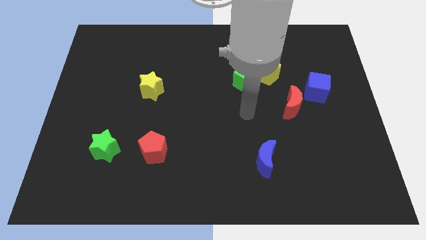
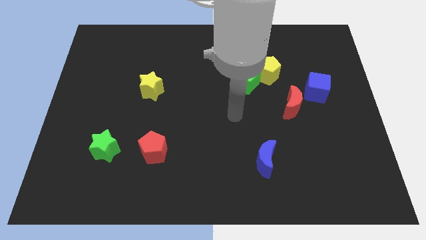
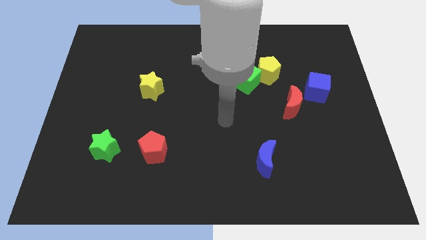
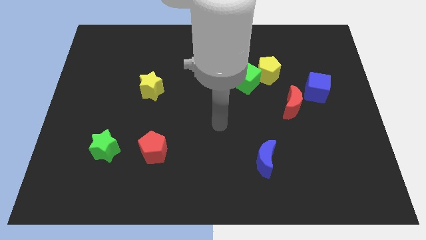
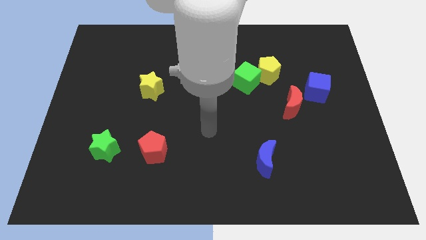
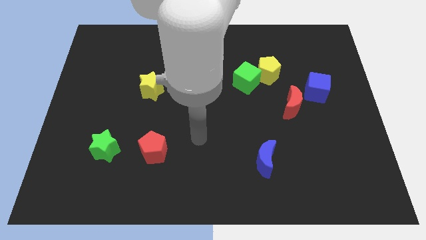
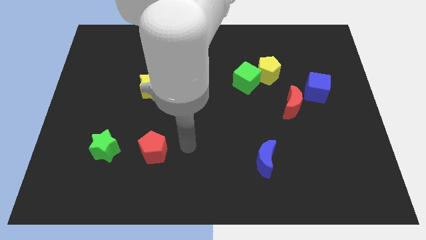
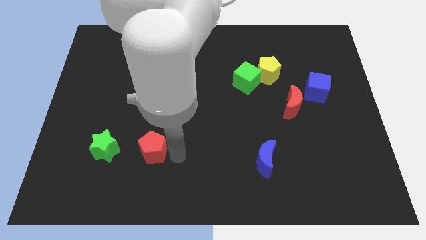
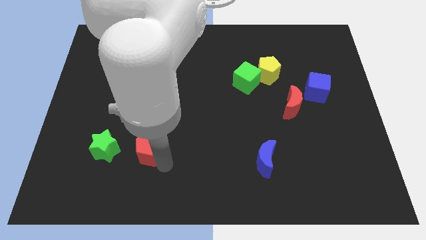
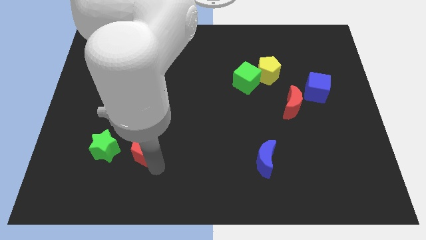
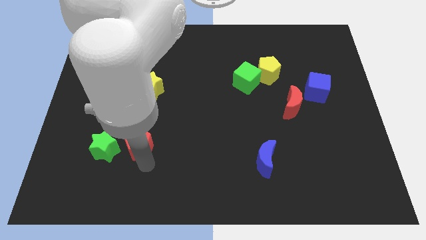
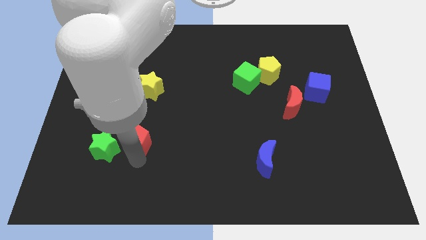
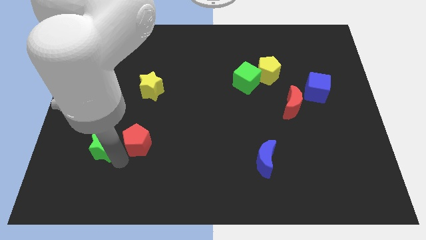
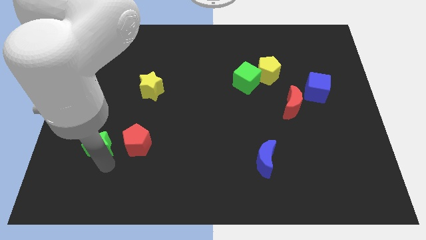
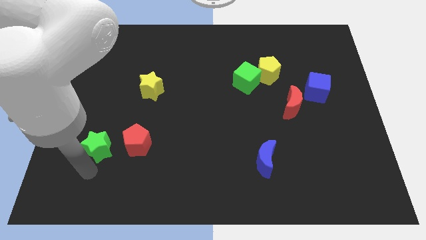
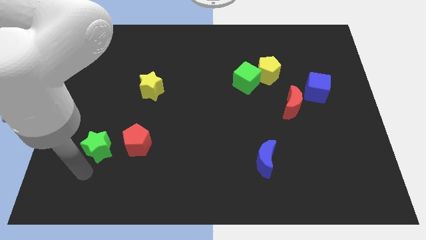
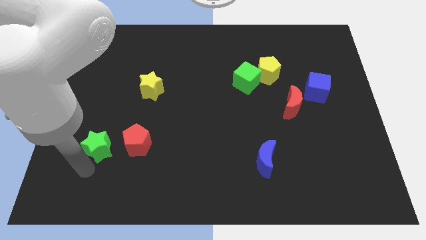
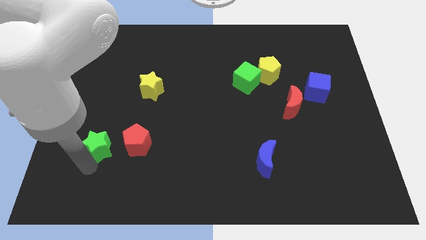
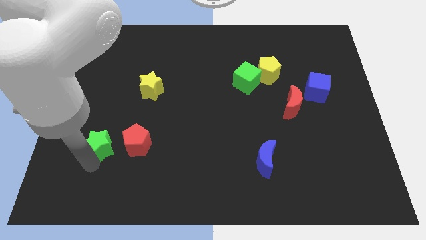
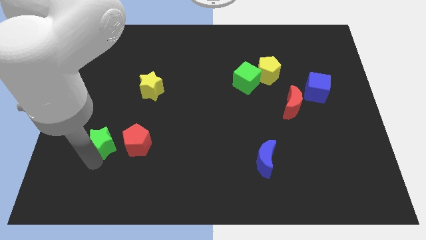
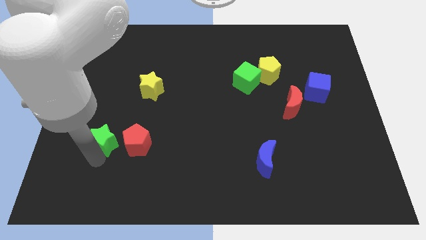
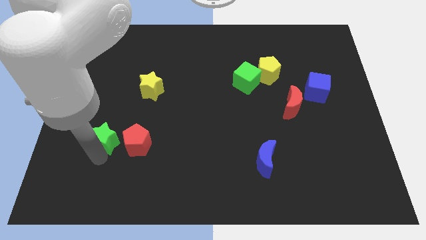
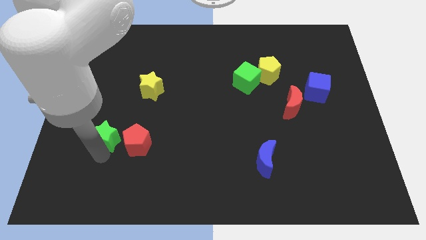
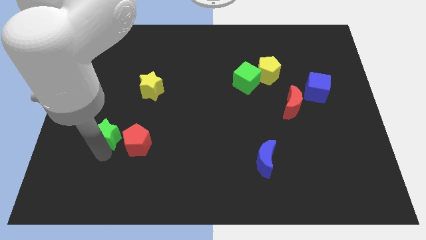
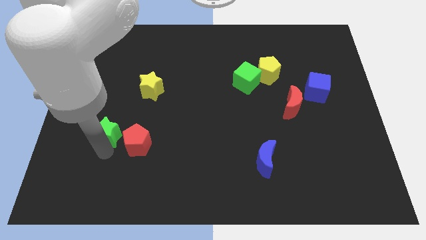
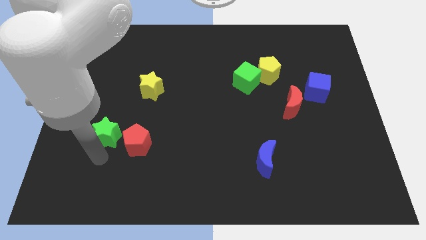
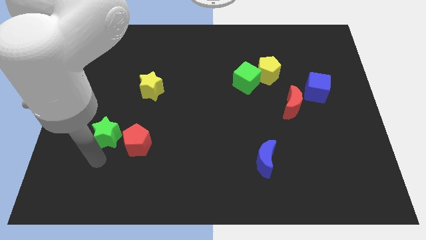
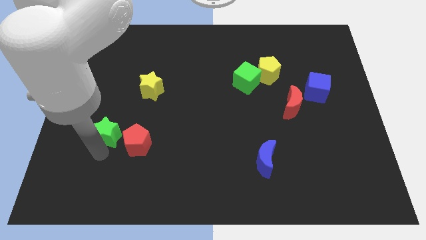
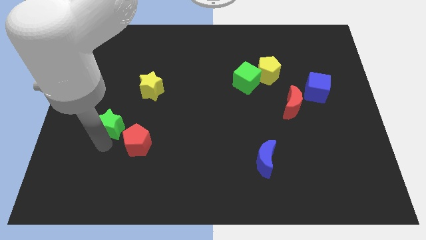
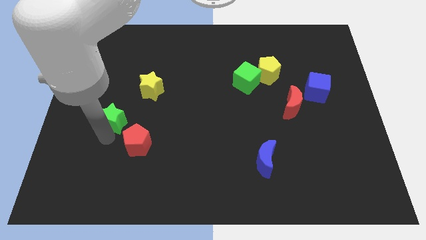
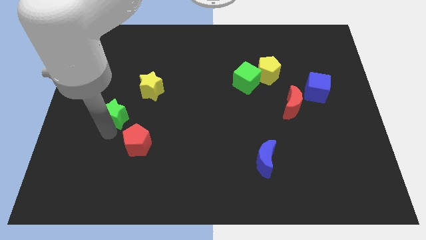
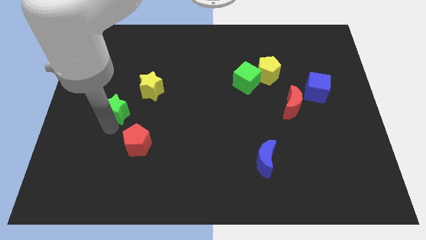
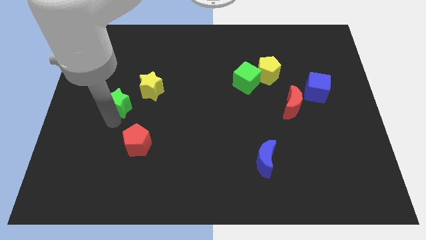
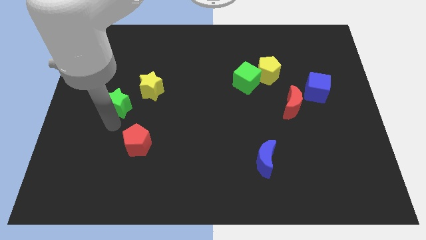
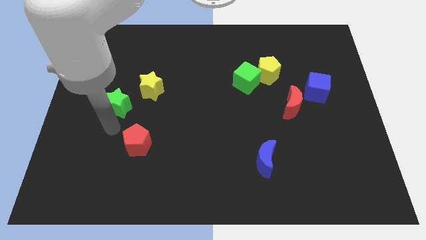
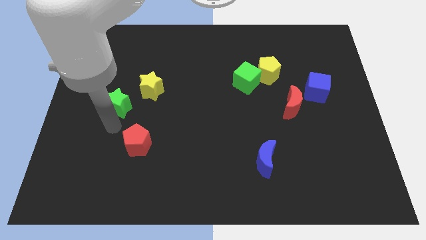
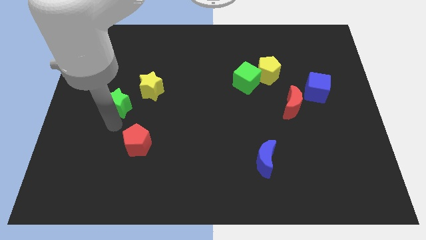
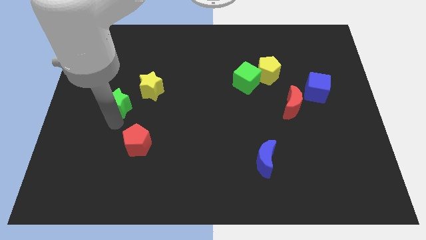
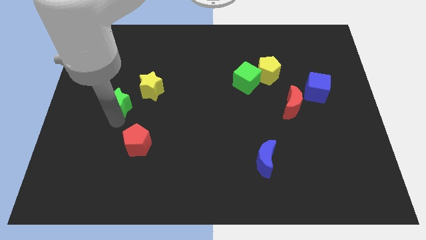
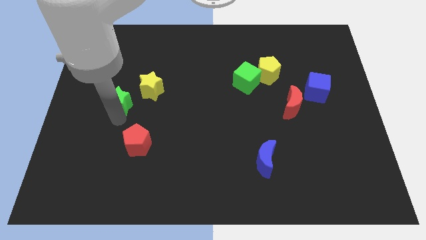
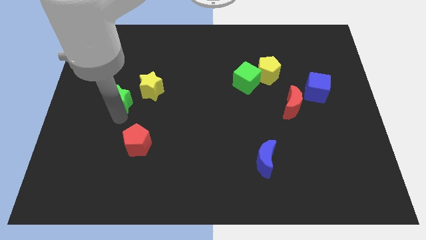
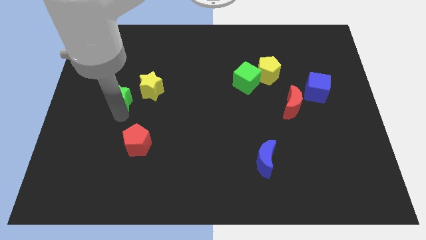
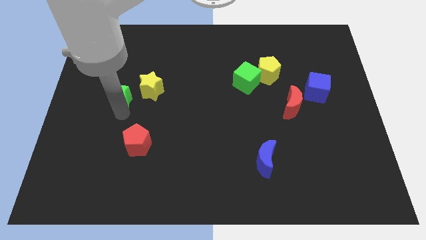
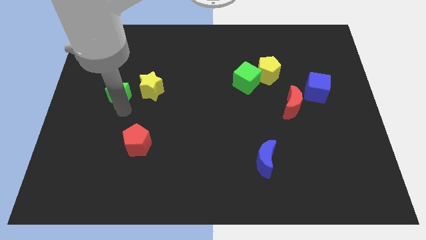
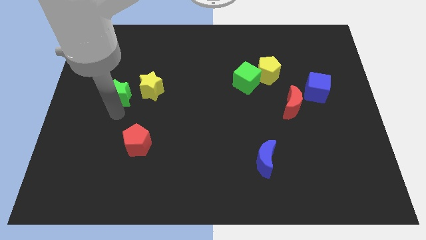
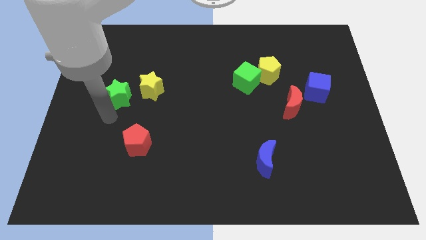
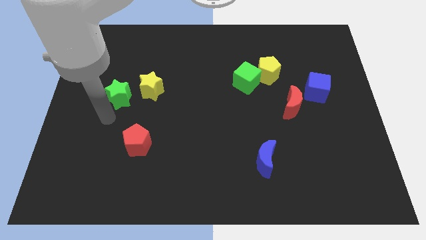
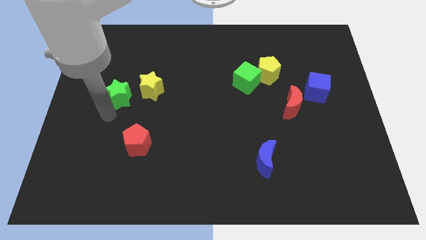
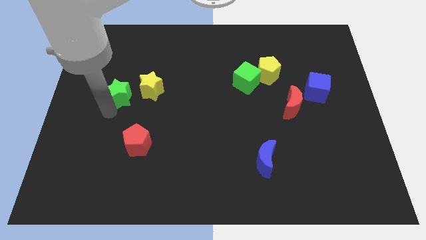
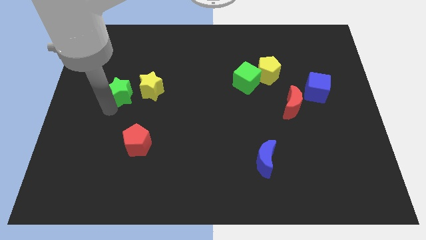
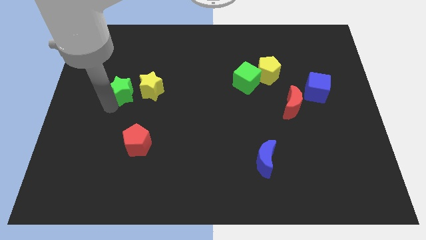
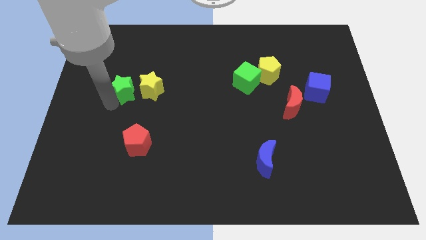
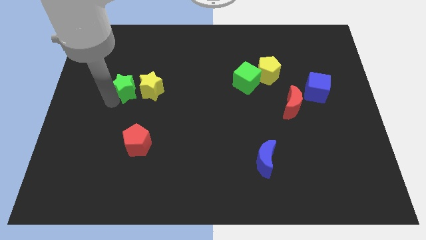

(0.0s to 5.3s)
slide the green star to the top left of the yellow star

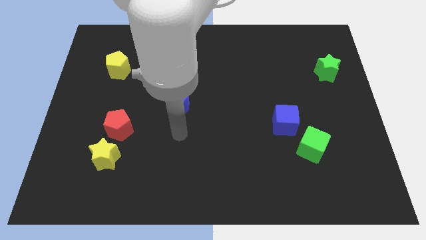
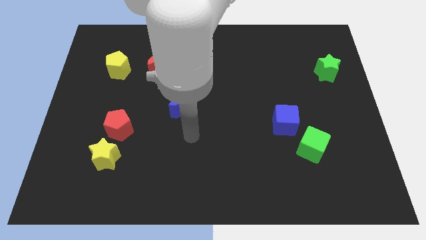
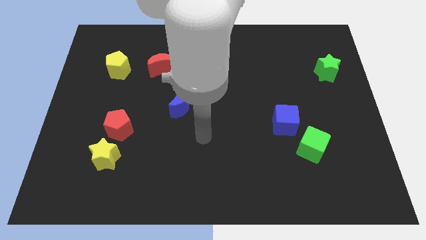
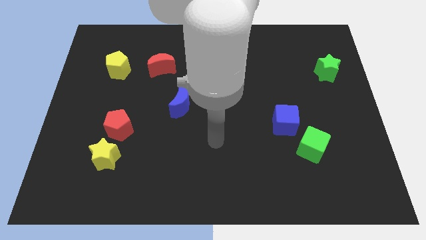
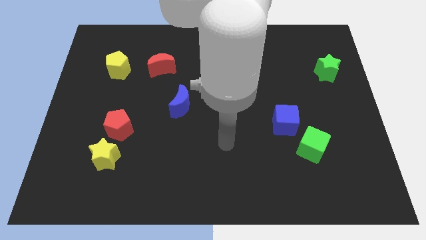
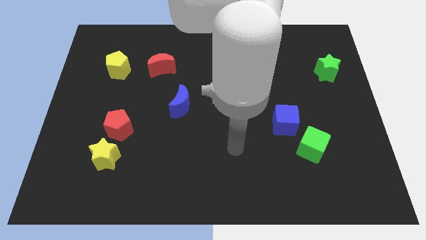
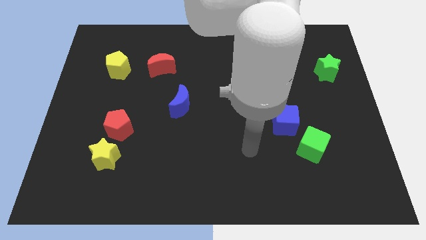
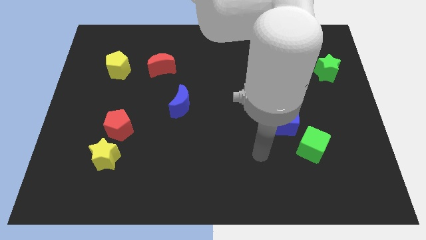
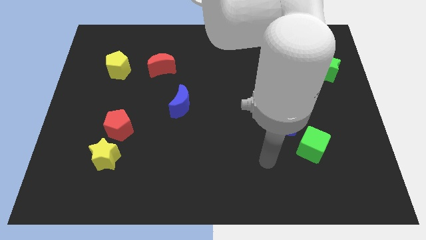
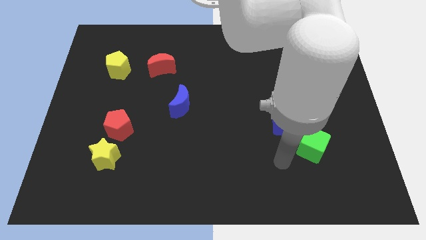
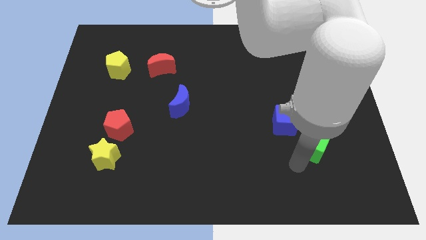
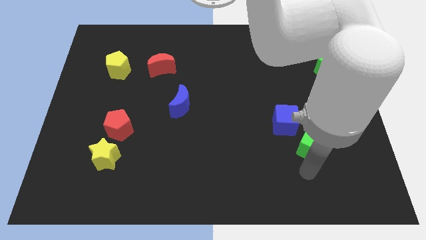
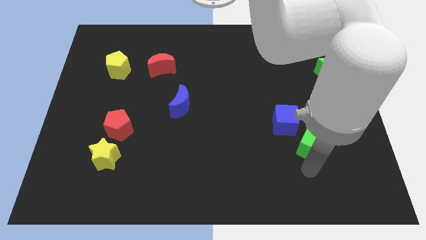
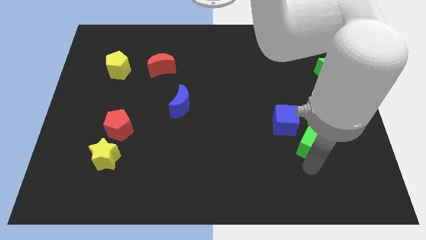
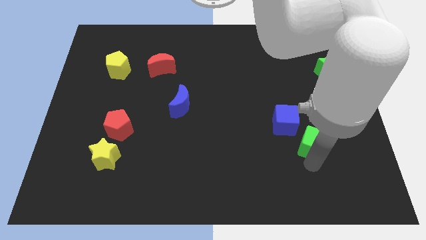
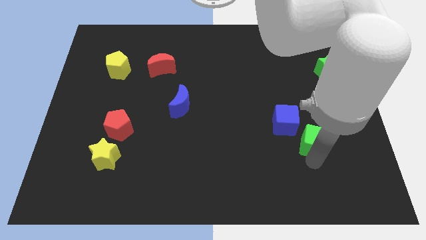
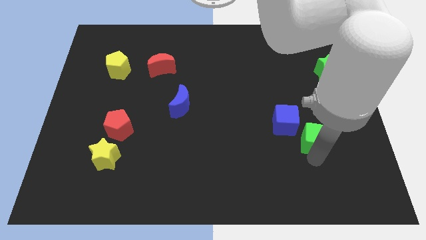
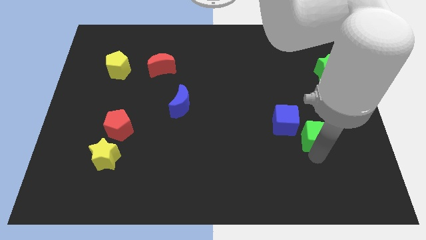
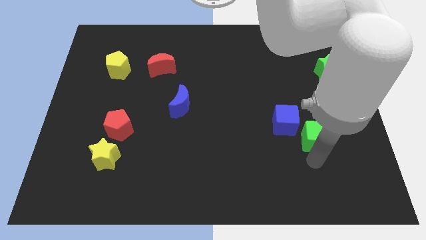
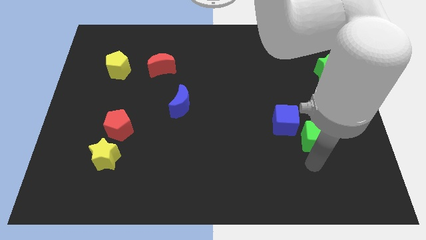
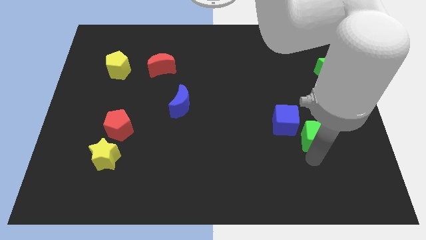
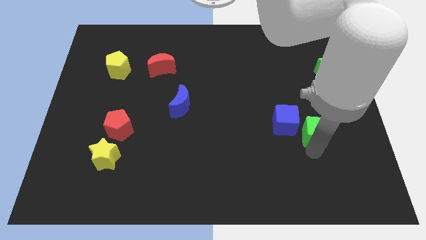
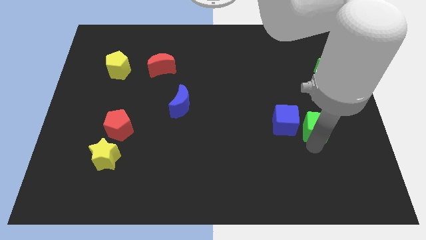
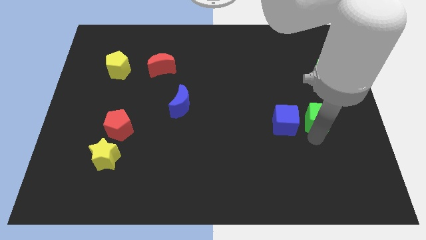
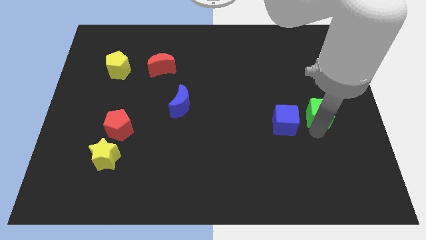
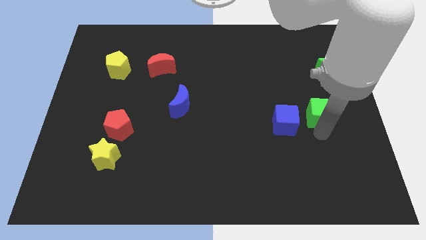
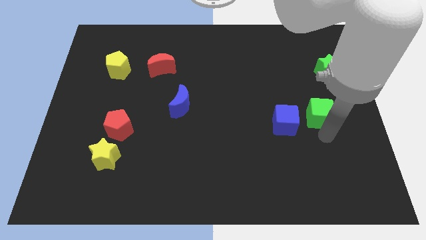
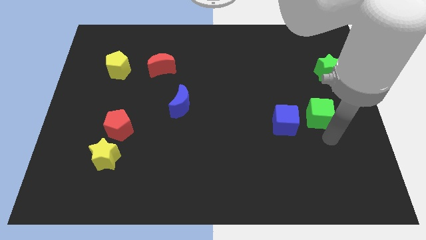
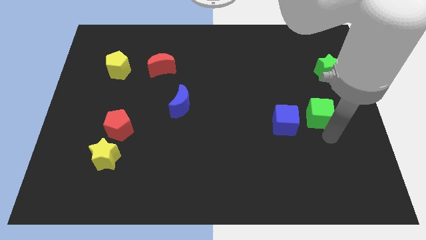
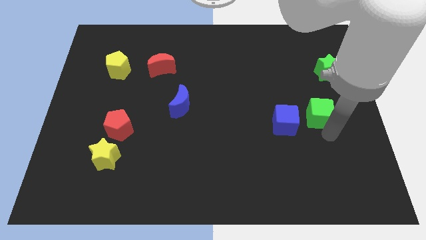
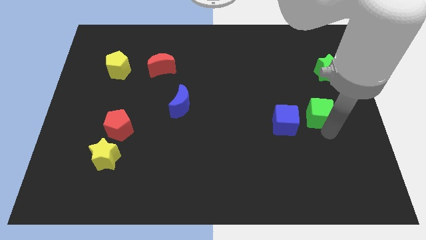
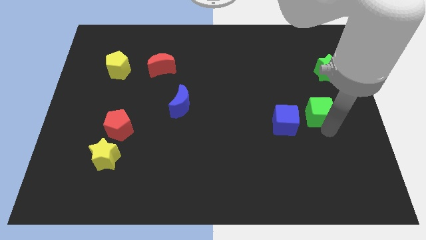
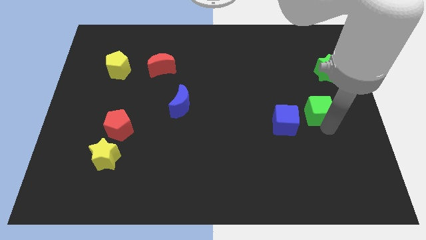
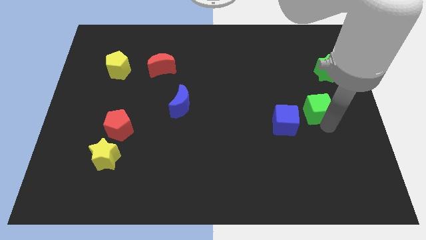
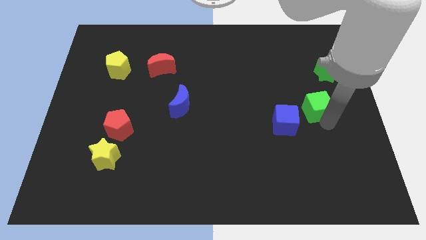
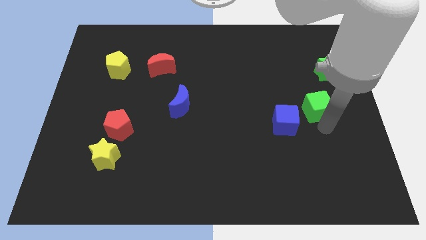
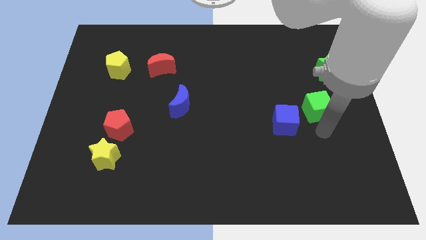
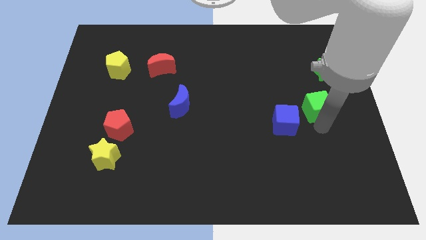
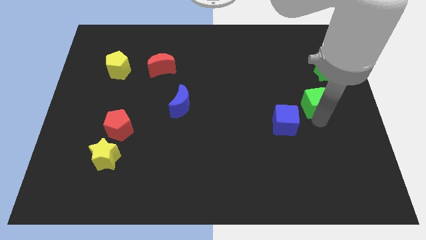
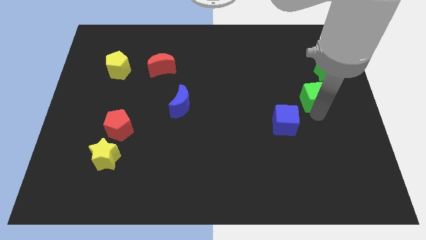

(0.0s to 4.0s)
slide the green cube diagonally down and to the left of the green star
